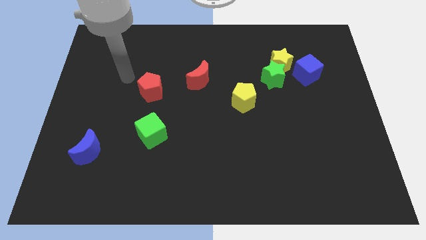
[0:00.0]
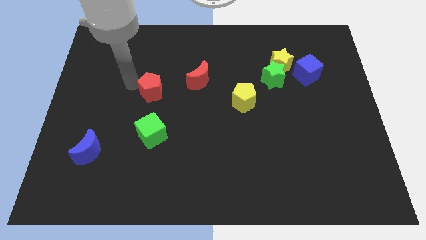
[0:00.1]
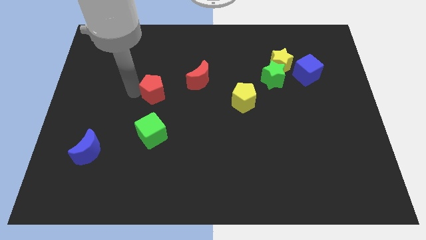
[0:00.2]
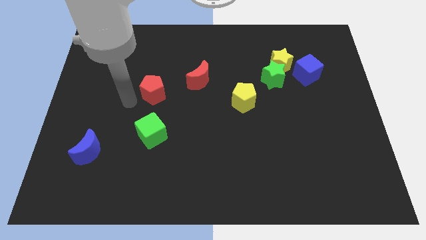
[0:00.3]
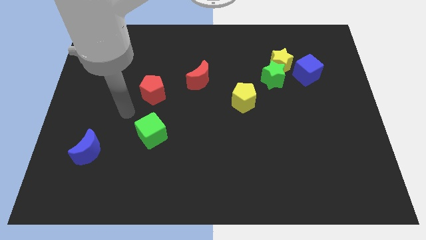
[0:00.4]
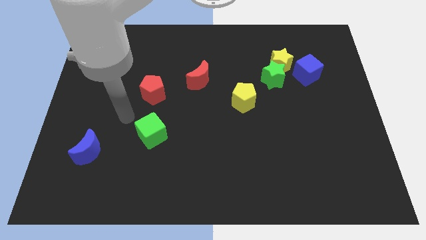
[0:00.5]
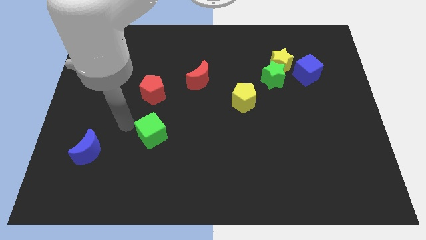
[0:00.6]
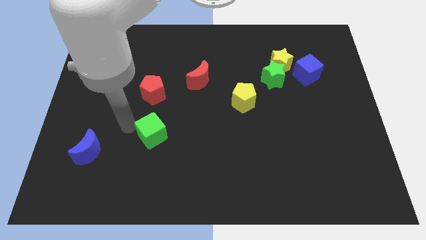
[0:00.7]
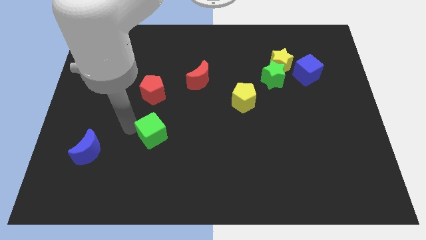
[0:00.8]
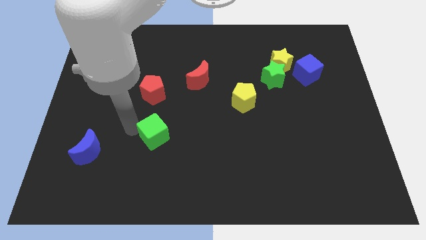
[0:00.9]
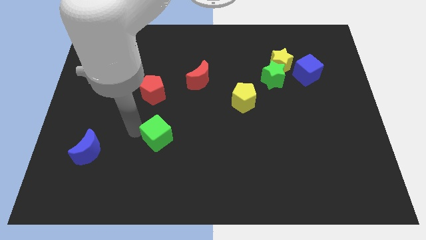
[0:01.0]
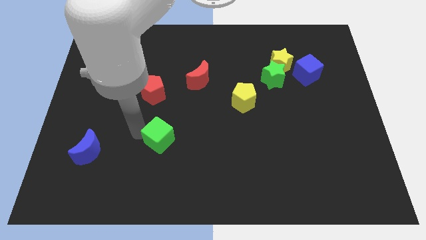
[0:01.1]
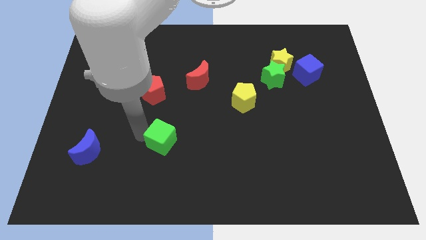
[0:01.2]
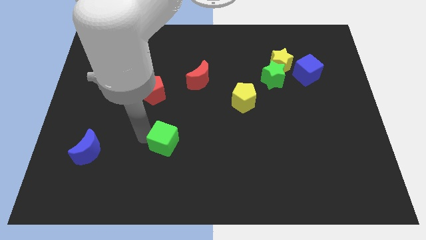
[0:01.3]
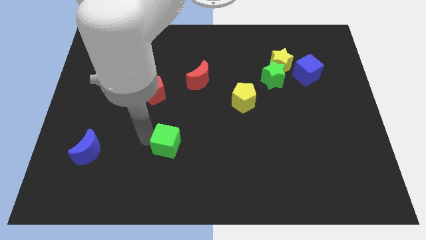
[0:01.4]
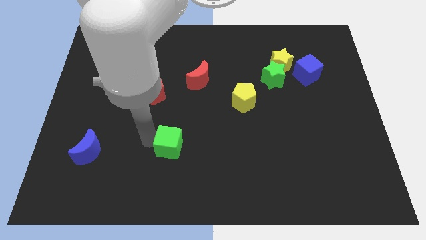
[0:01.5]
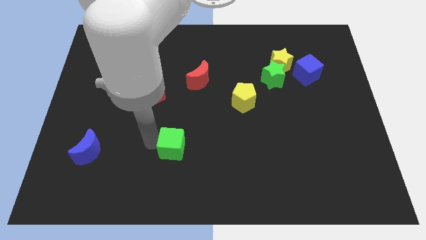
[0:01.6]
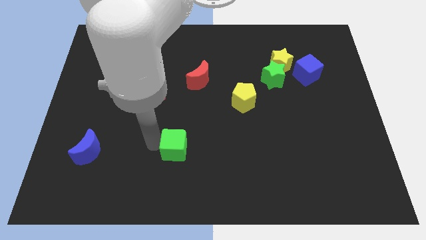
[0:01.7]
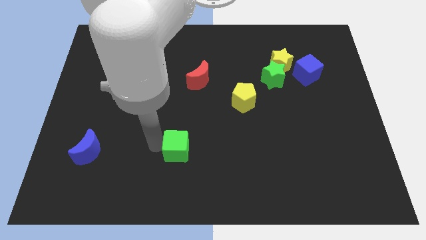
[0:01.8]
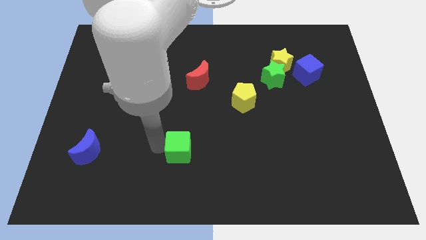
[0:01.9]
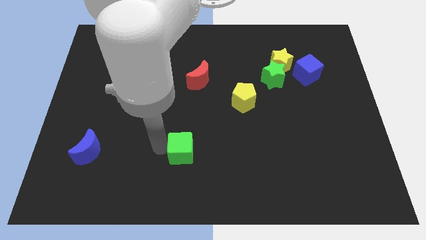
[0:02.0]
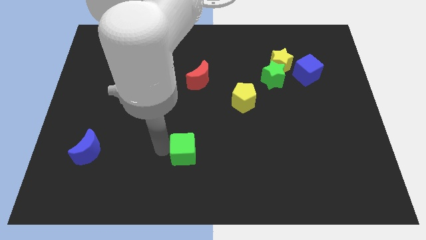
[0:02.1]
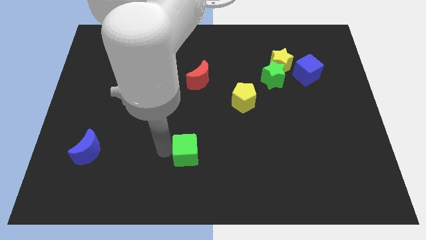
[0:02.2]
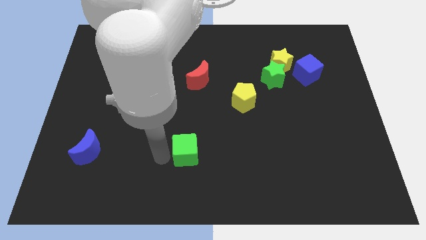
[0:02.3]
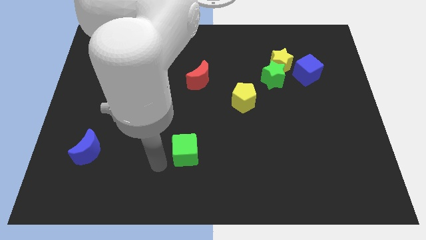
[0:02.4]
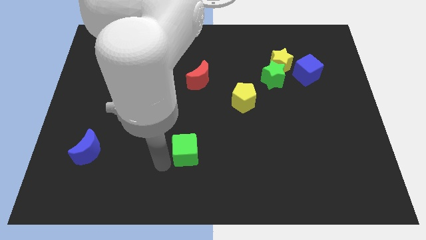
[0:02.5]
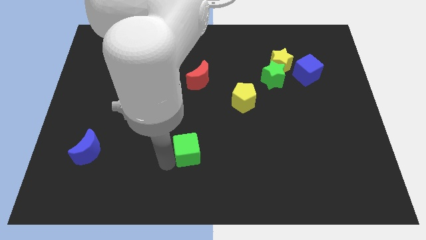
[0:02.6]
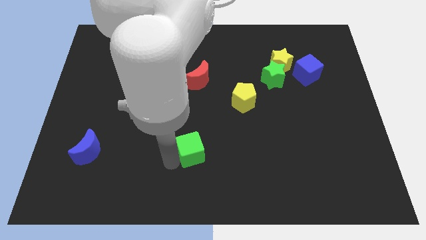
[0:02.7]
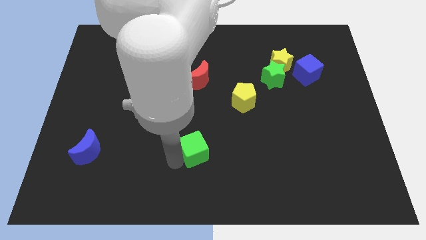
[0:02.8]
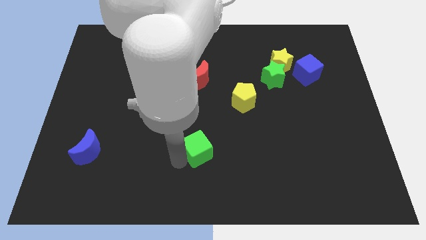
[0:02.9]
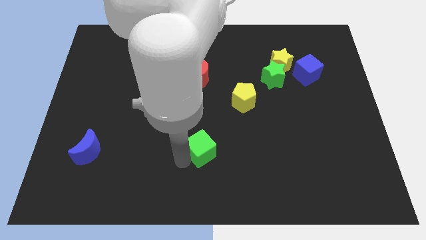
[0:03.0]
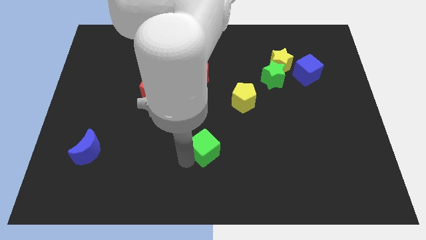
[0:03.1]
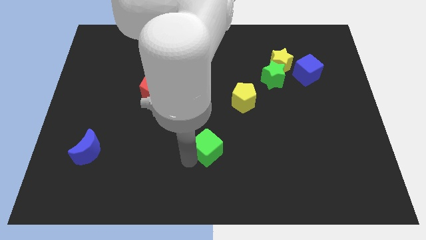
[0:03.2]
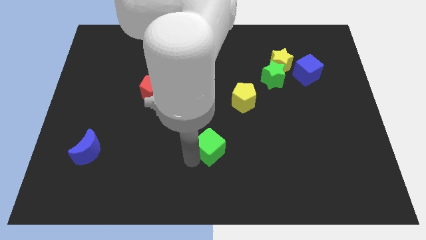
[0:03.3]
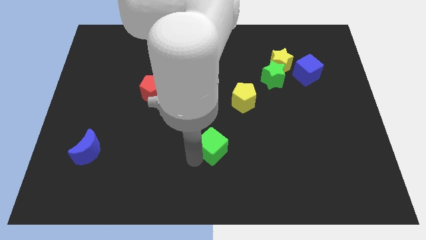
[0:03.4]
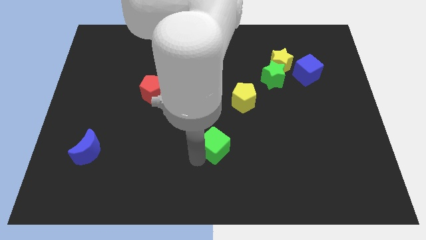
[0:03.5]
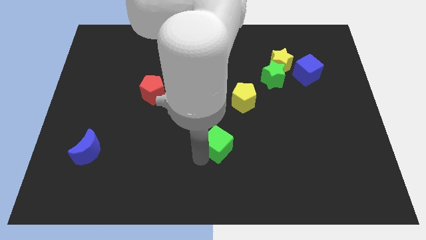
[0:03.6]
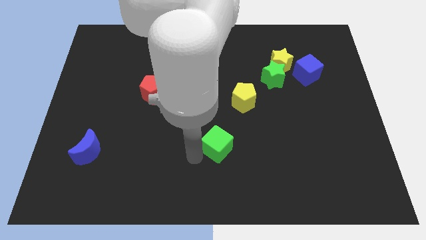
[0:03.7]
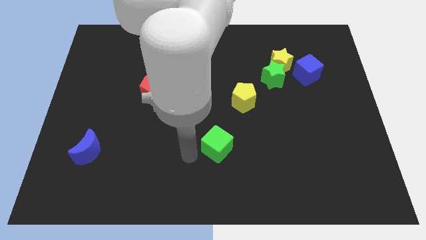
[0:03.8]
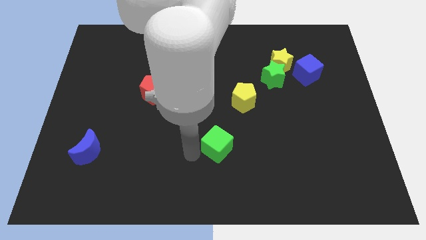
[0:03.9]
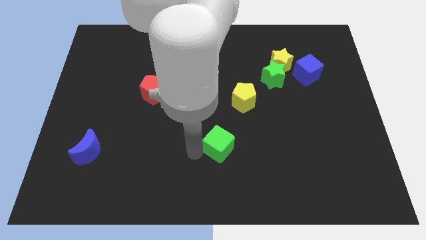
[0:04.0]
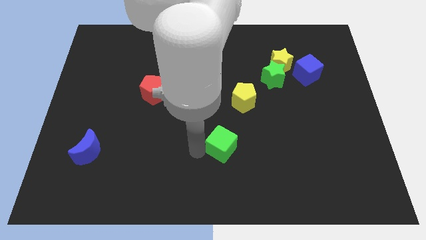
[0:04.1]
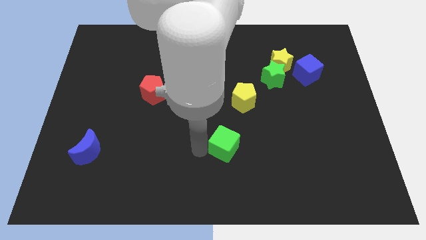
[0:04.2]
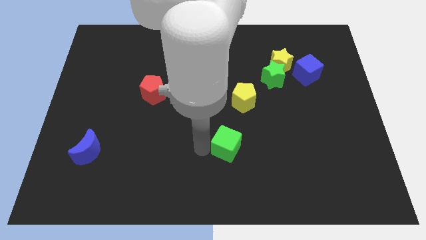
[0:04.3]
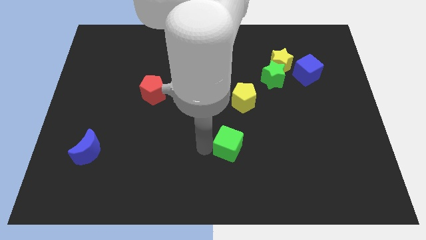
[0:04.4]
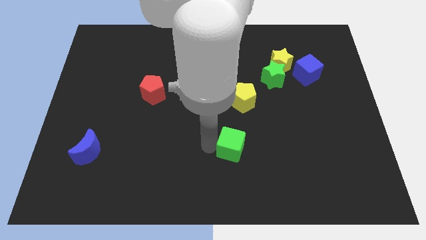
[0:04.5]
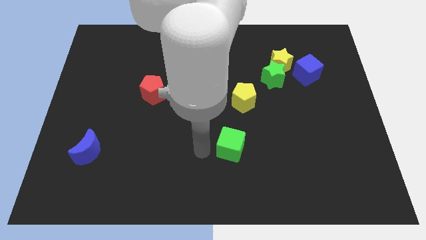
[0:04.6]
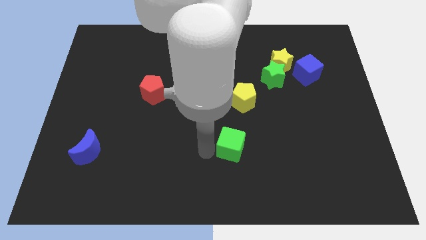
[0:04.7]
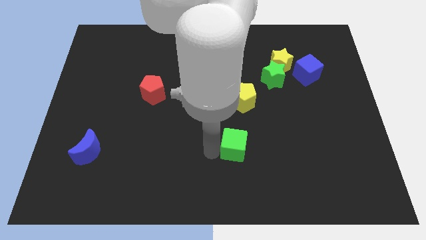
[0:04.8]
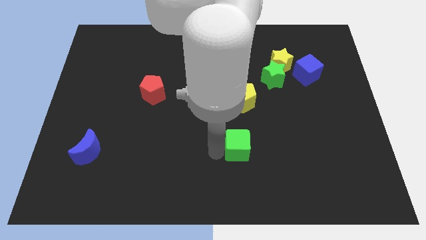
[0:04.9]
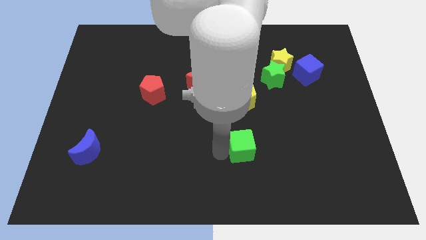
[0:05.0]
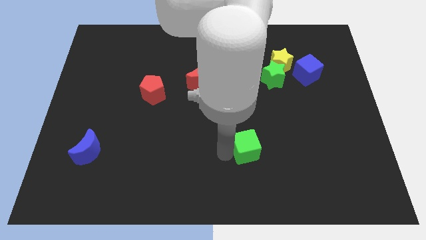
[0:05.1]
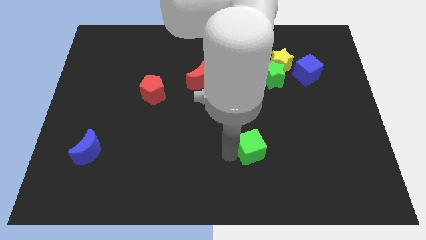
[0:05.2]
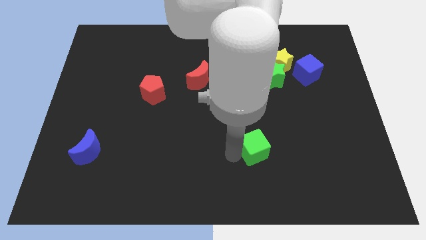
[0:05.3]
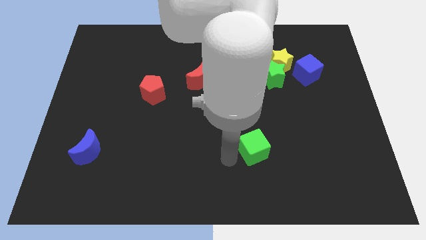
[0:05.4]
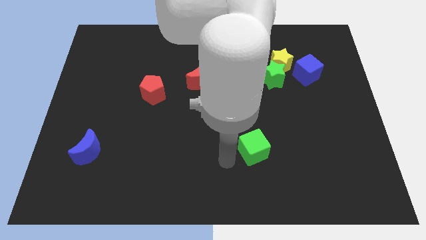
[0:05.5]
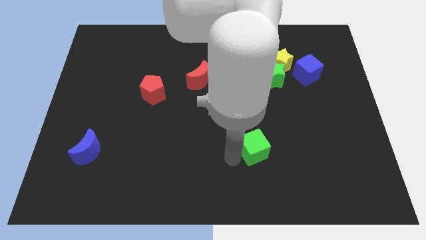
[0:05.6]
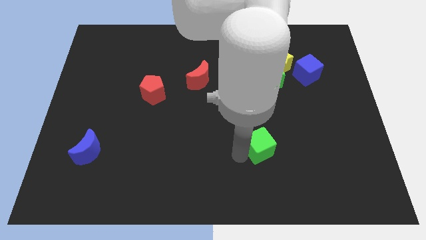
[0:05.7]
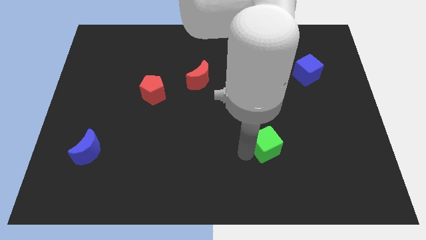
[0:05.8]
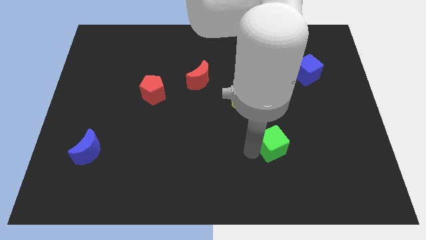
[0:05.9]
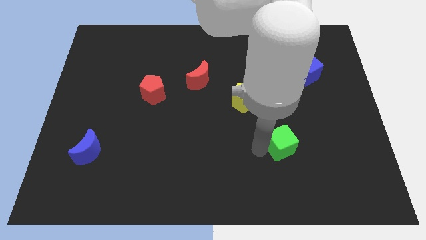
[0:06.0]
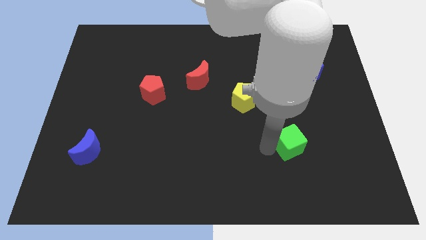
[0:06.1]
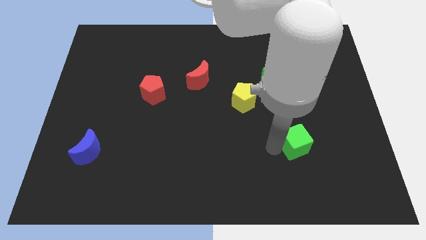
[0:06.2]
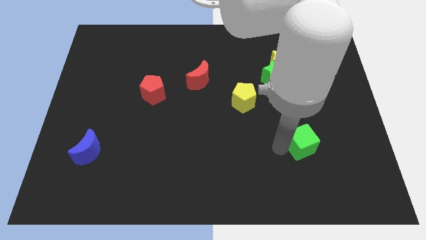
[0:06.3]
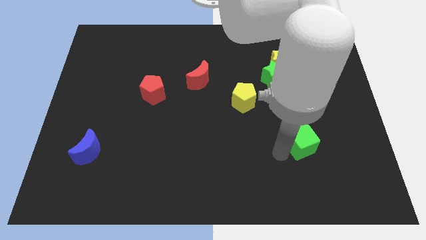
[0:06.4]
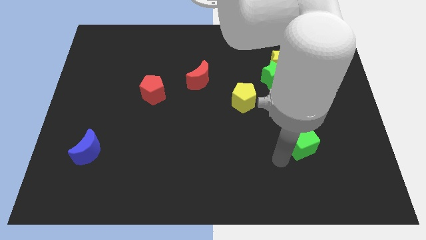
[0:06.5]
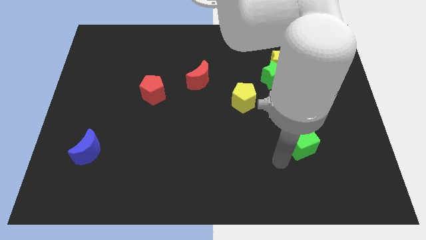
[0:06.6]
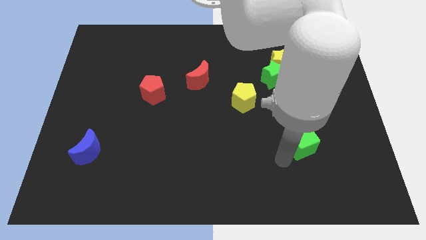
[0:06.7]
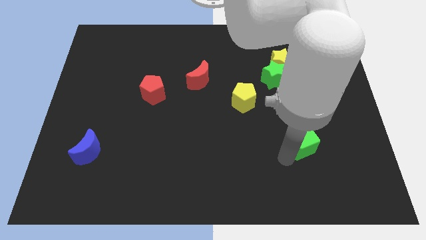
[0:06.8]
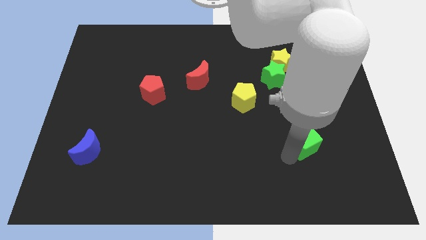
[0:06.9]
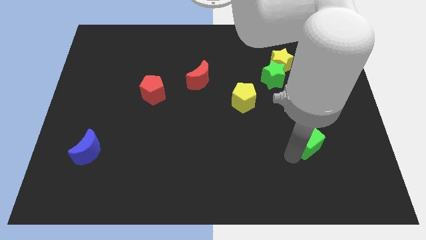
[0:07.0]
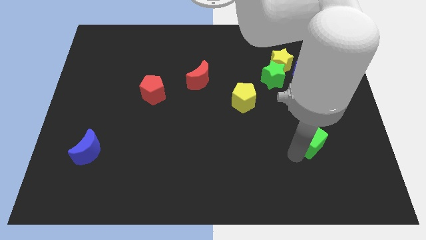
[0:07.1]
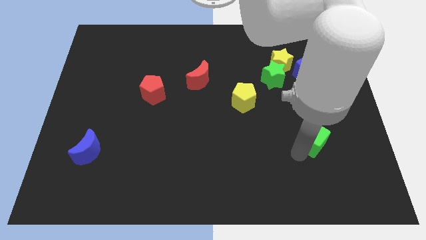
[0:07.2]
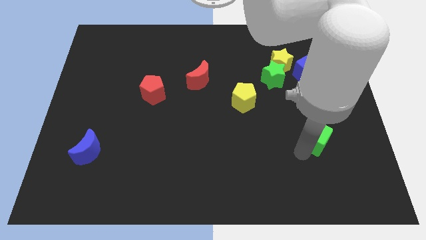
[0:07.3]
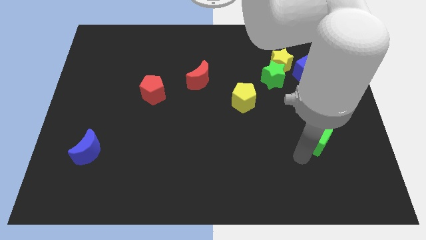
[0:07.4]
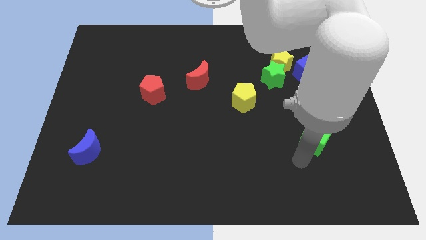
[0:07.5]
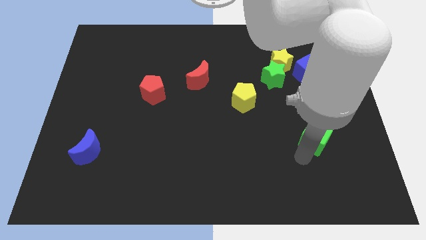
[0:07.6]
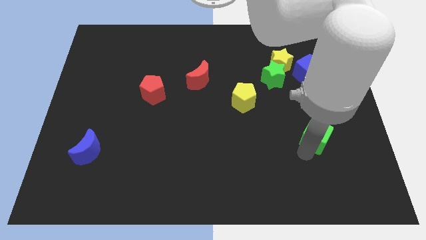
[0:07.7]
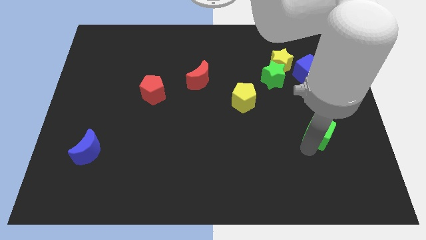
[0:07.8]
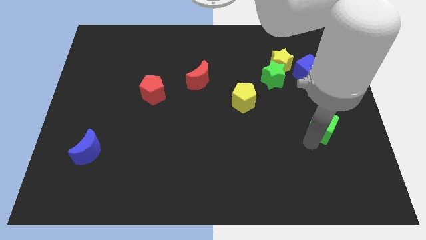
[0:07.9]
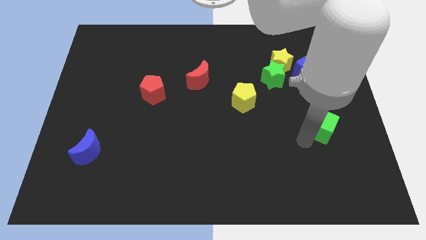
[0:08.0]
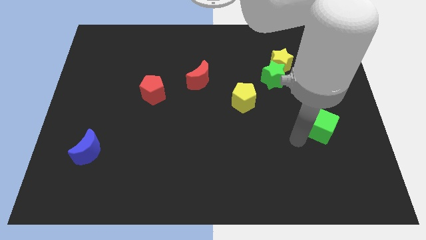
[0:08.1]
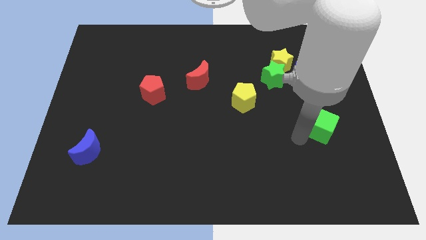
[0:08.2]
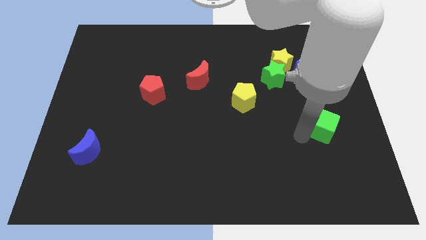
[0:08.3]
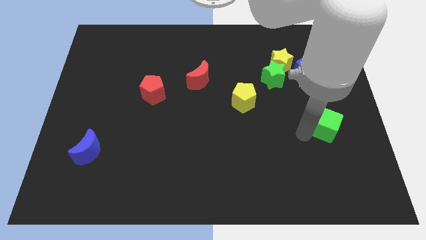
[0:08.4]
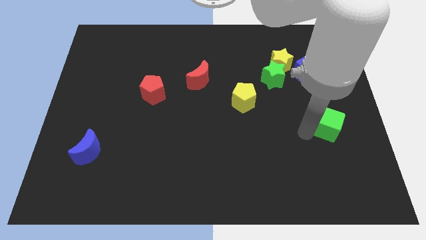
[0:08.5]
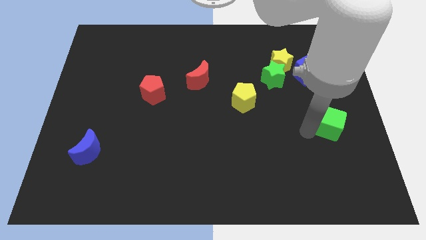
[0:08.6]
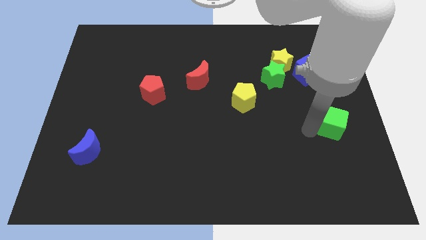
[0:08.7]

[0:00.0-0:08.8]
put the green cube to the right side of the board
